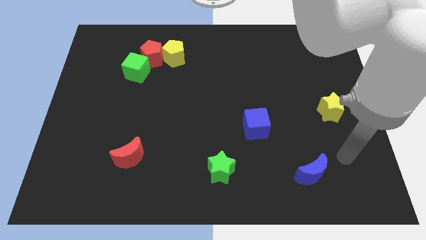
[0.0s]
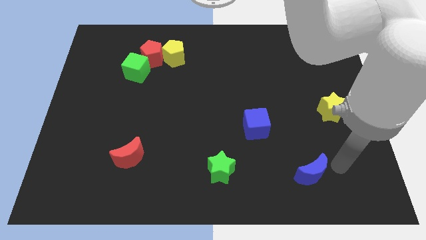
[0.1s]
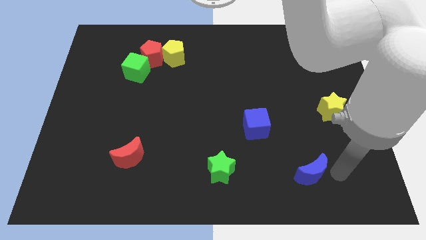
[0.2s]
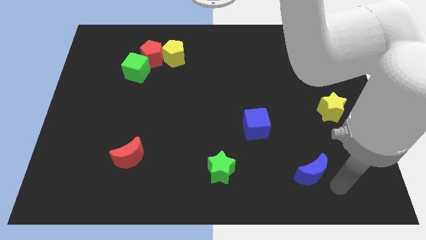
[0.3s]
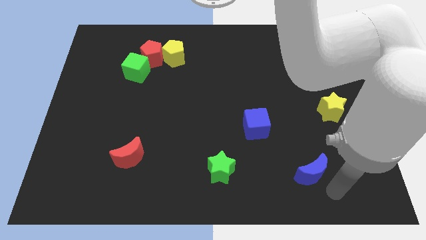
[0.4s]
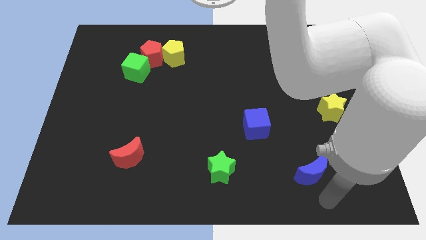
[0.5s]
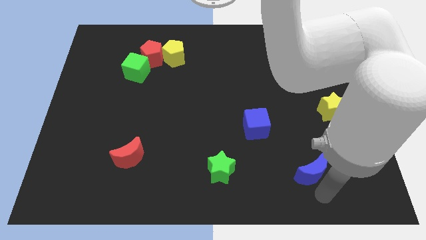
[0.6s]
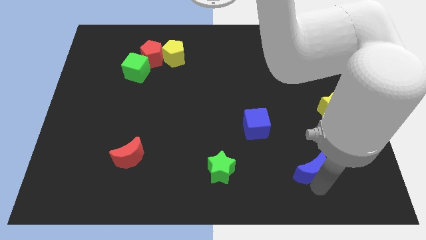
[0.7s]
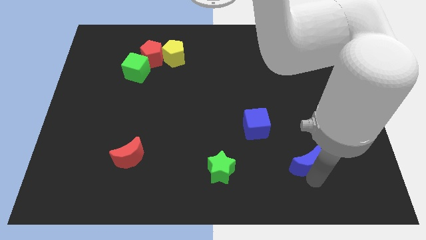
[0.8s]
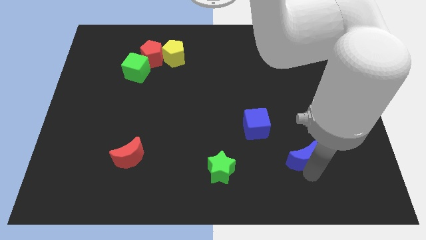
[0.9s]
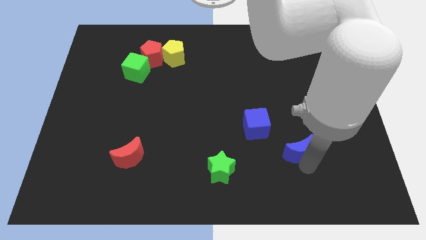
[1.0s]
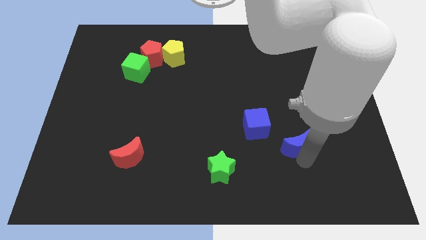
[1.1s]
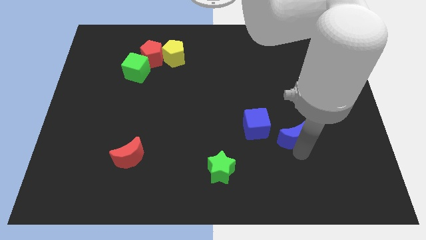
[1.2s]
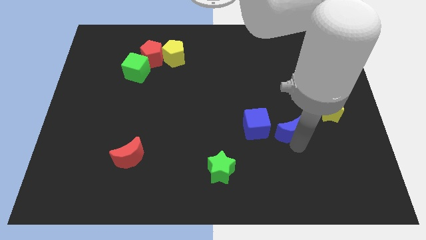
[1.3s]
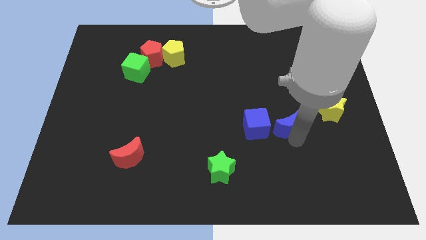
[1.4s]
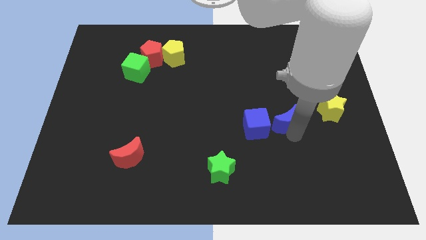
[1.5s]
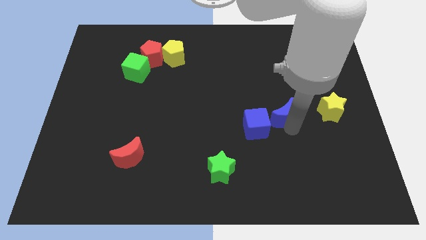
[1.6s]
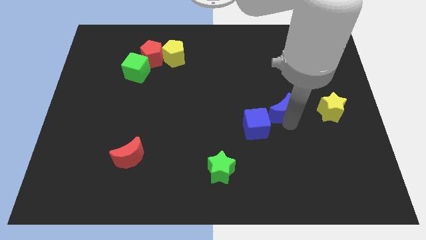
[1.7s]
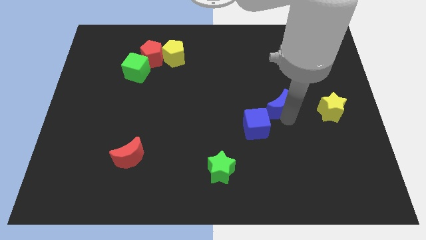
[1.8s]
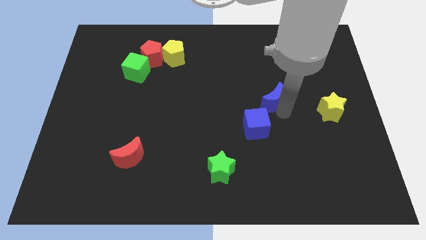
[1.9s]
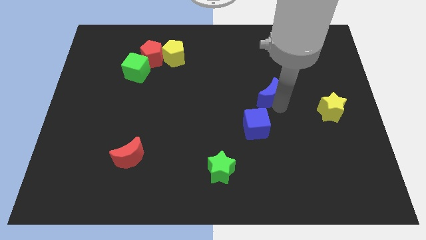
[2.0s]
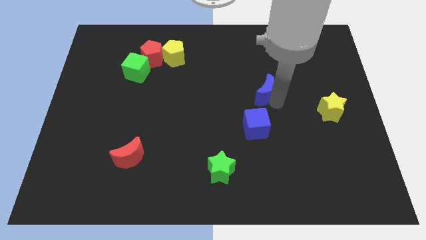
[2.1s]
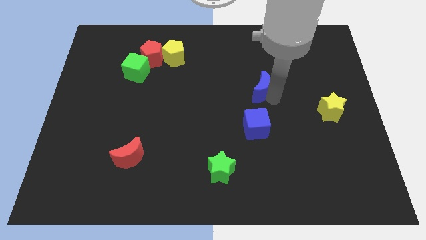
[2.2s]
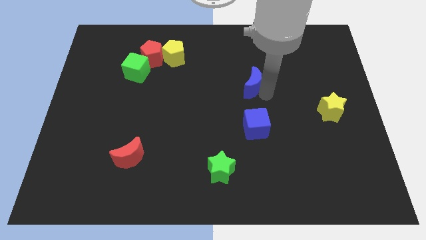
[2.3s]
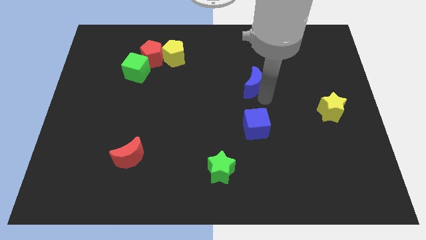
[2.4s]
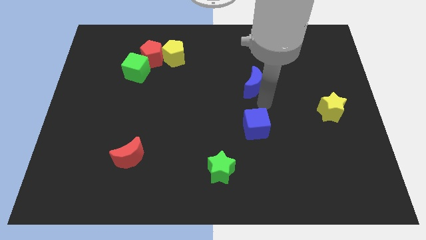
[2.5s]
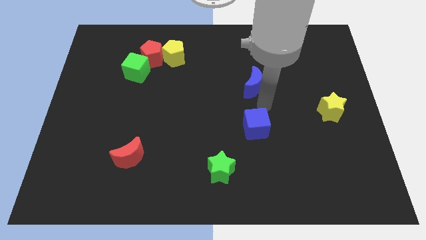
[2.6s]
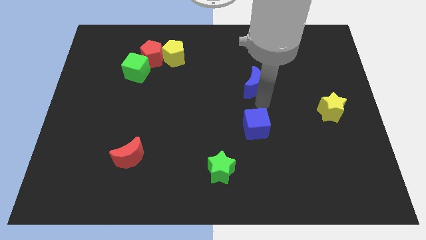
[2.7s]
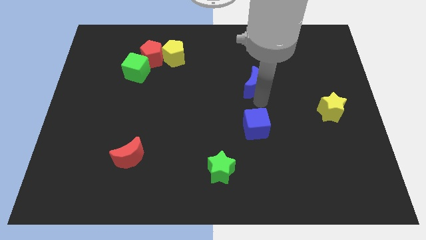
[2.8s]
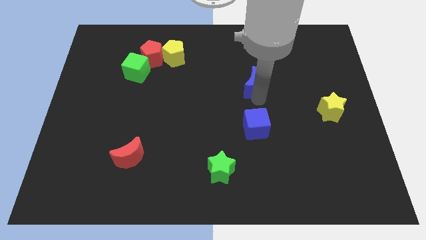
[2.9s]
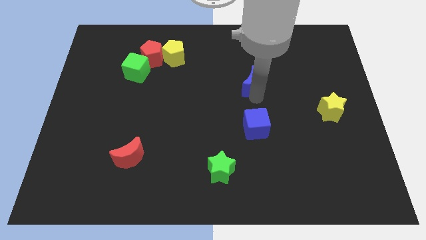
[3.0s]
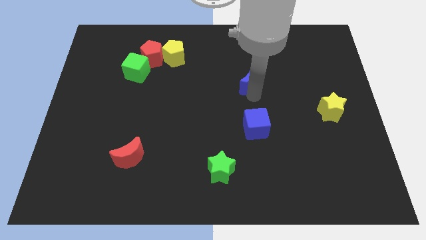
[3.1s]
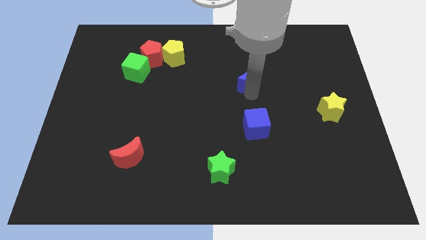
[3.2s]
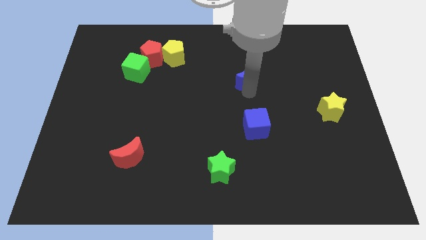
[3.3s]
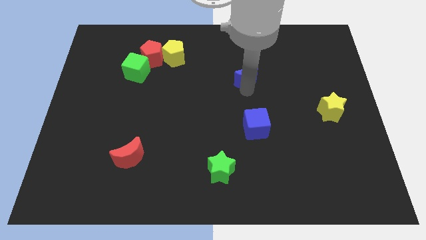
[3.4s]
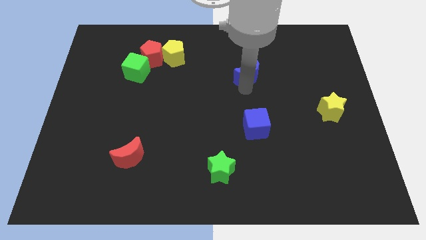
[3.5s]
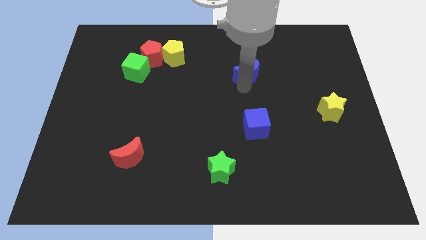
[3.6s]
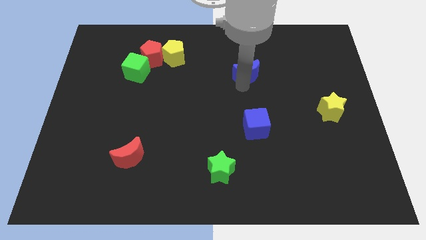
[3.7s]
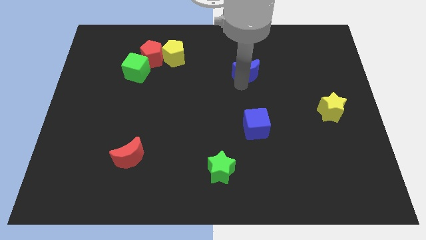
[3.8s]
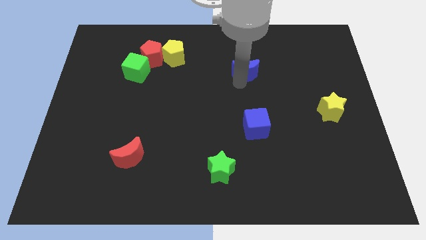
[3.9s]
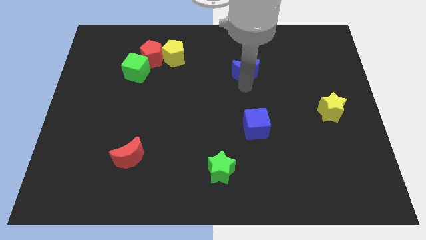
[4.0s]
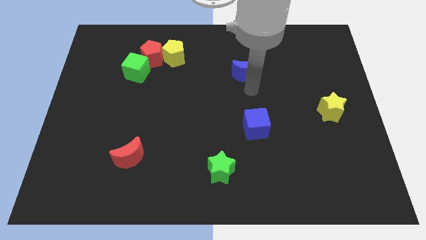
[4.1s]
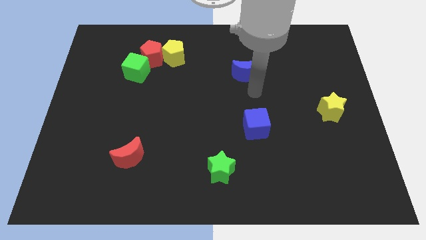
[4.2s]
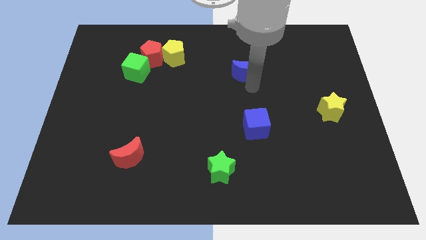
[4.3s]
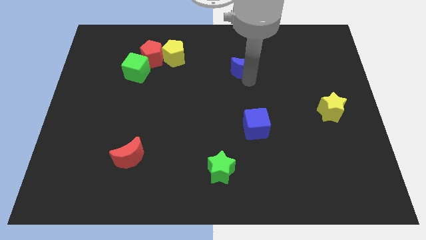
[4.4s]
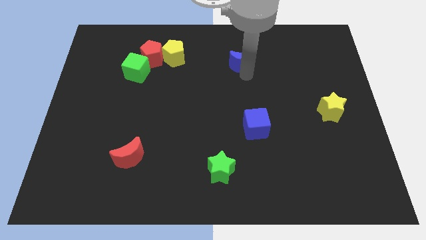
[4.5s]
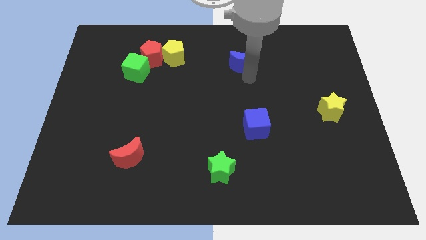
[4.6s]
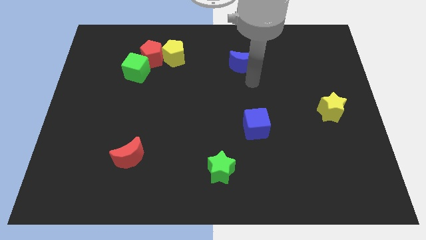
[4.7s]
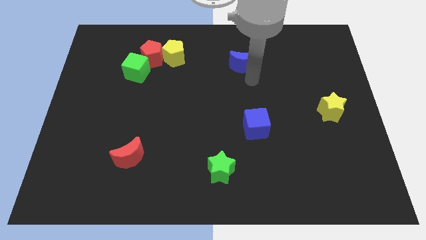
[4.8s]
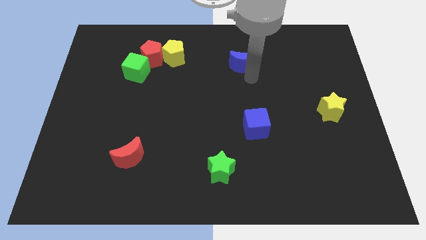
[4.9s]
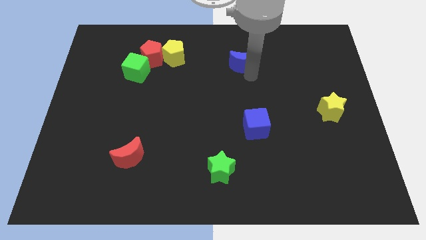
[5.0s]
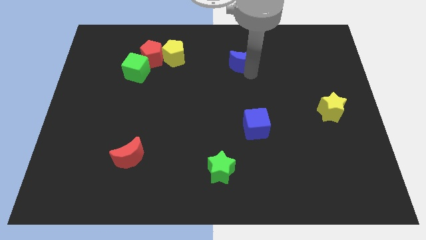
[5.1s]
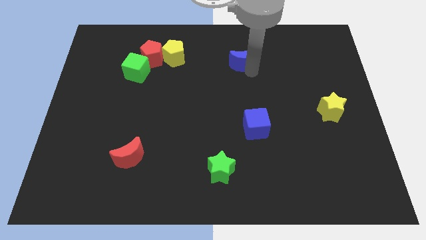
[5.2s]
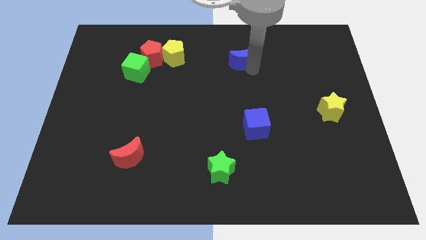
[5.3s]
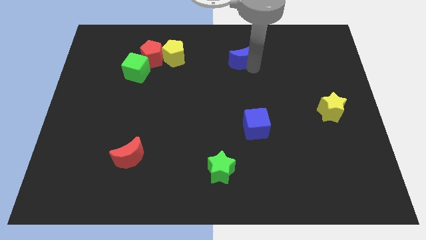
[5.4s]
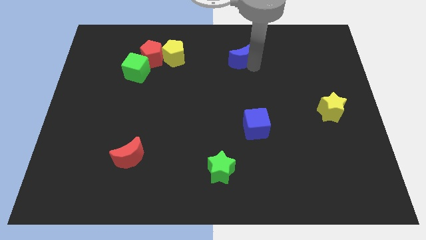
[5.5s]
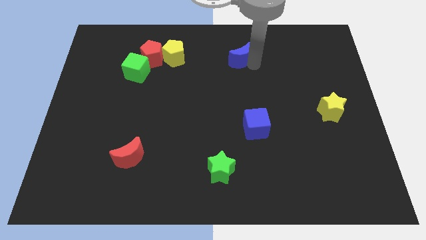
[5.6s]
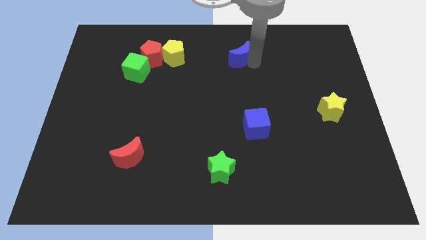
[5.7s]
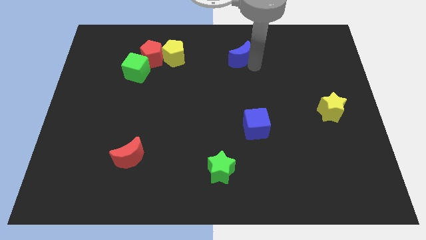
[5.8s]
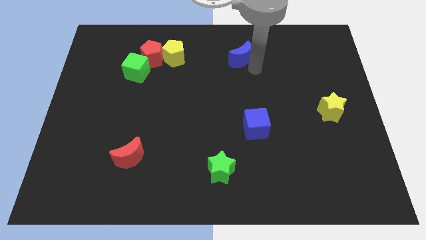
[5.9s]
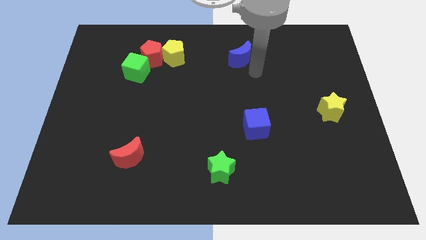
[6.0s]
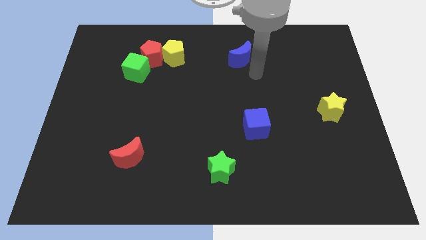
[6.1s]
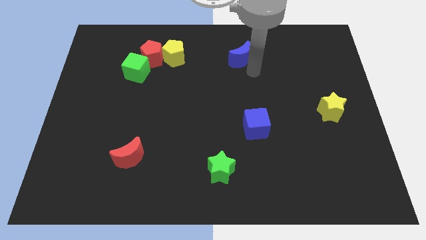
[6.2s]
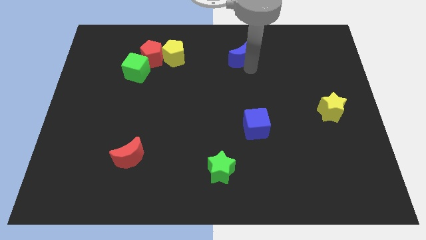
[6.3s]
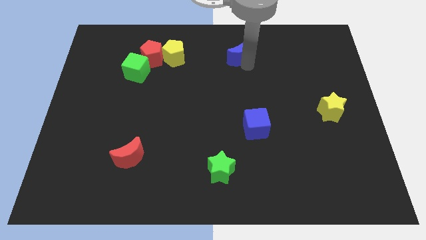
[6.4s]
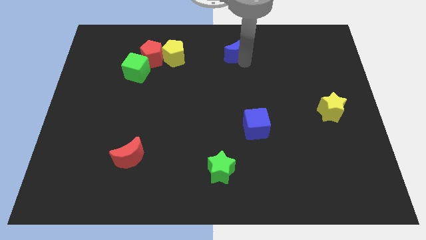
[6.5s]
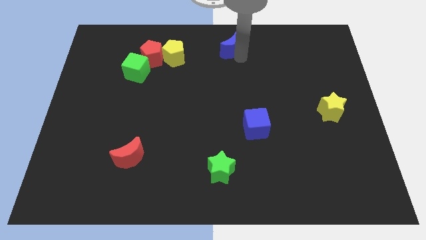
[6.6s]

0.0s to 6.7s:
push the blue moon to the top
